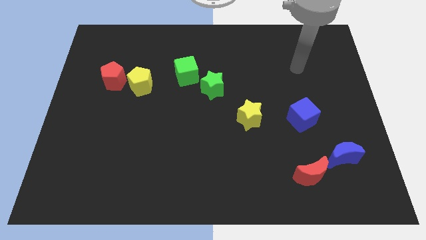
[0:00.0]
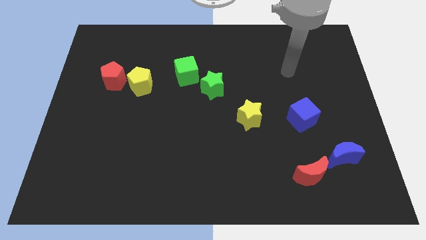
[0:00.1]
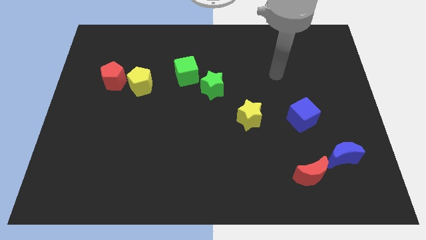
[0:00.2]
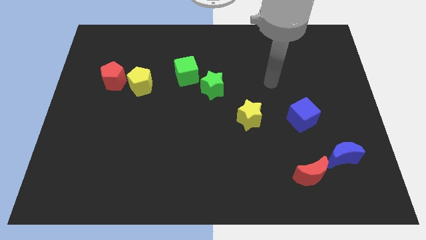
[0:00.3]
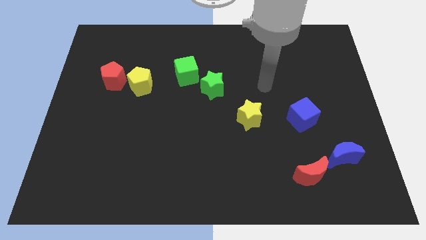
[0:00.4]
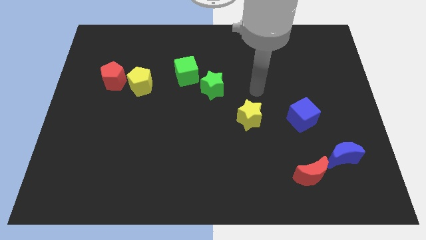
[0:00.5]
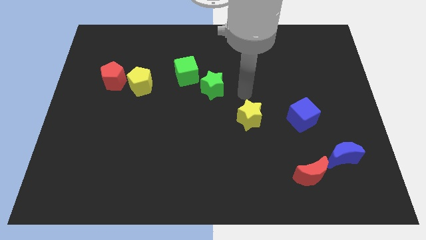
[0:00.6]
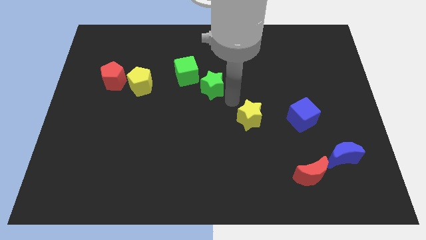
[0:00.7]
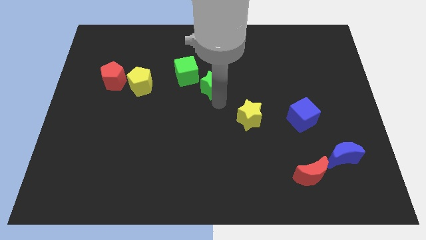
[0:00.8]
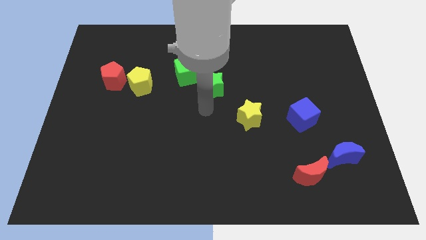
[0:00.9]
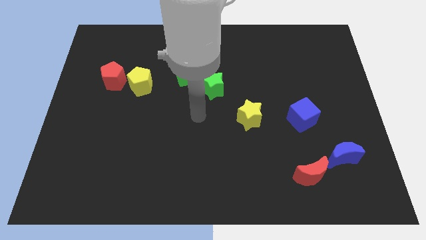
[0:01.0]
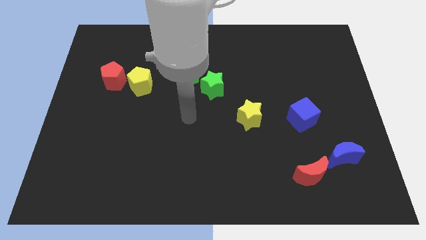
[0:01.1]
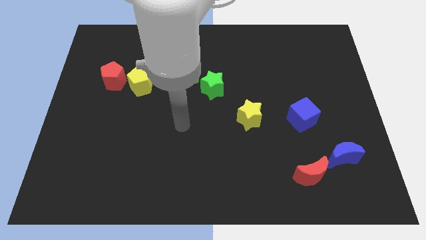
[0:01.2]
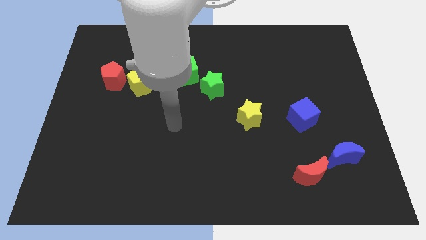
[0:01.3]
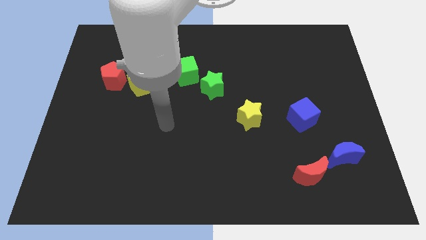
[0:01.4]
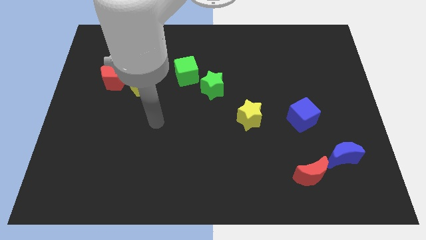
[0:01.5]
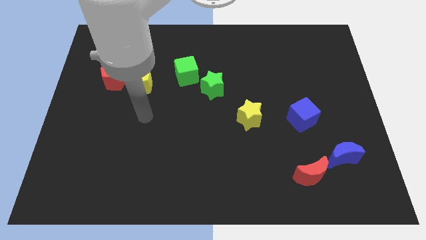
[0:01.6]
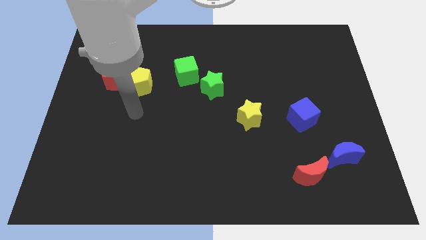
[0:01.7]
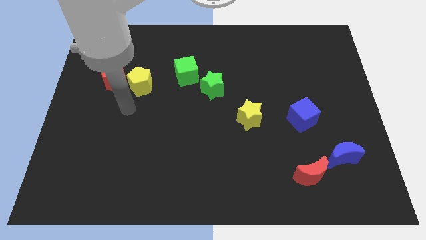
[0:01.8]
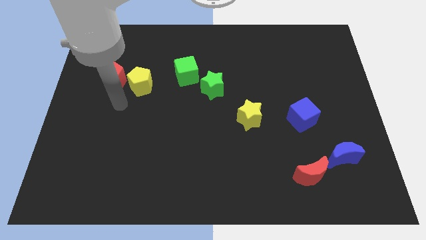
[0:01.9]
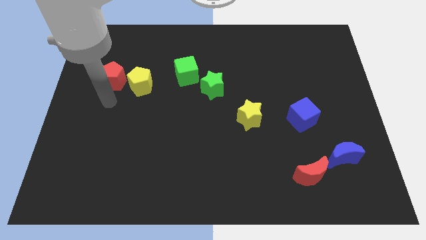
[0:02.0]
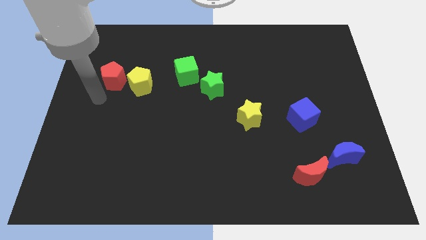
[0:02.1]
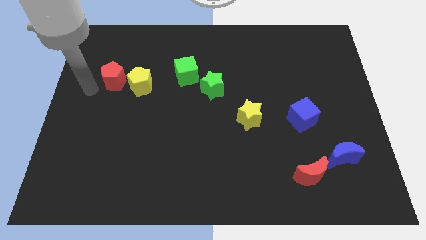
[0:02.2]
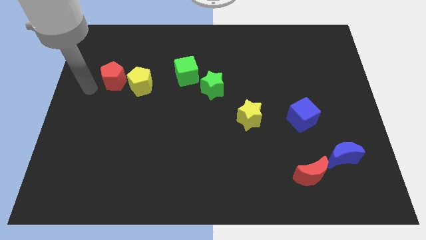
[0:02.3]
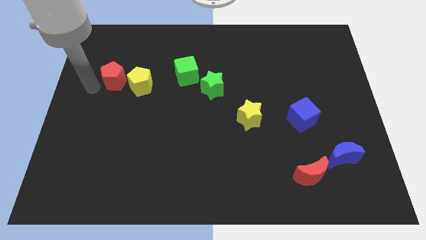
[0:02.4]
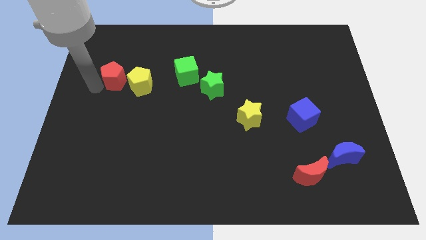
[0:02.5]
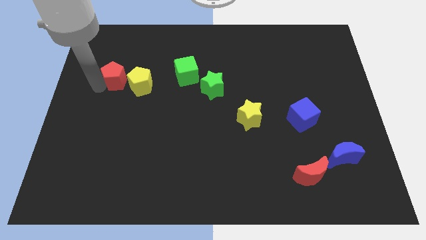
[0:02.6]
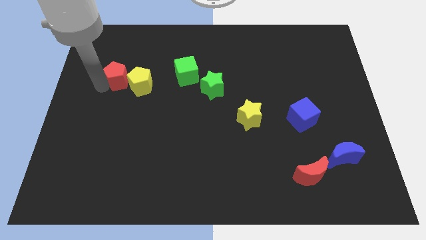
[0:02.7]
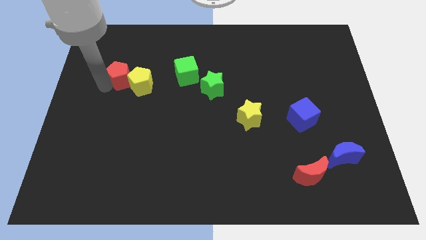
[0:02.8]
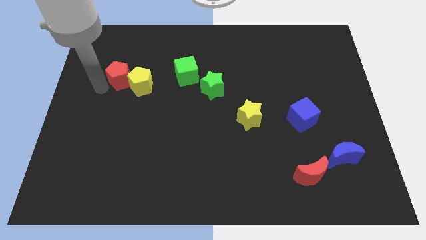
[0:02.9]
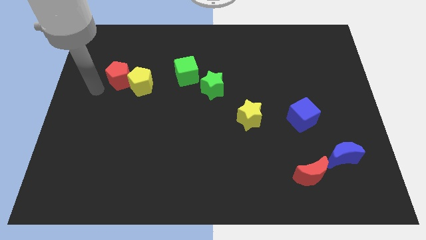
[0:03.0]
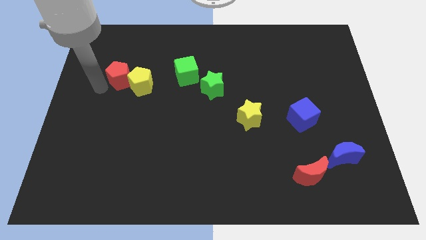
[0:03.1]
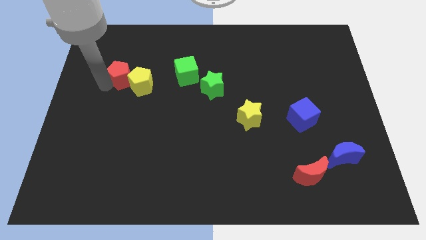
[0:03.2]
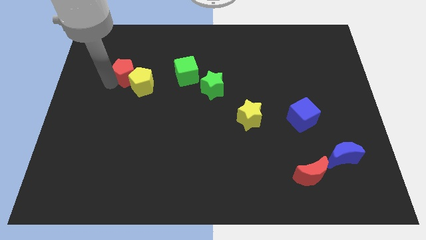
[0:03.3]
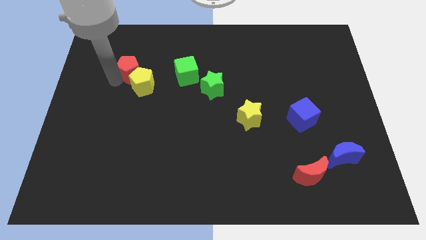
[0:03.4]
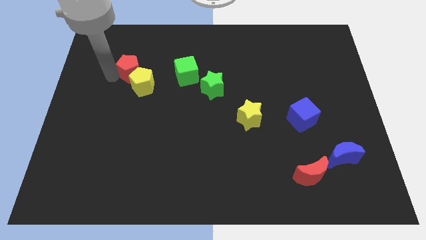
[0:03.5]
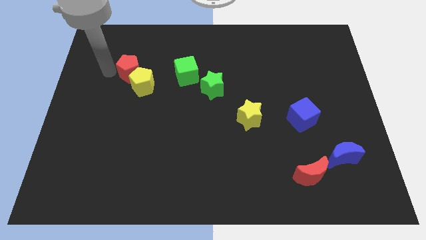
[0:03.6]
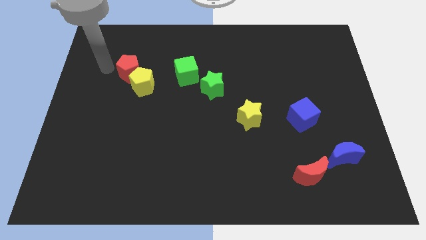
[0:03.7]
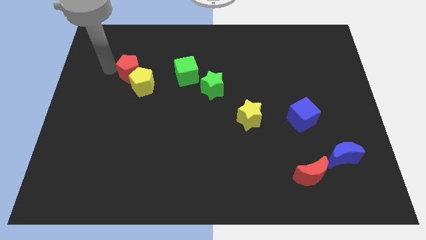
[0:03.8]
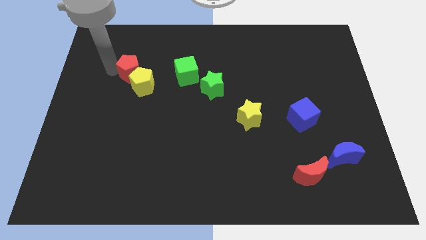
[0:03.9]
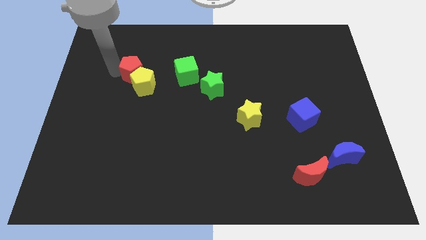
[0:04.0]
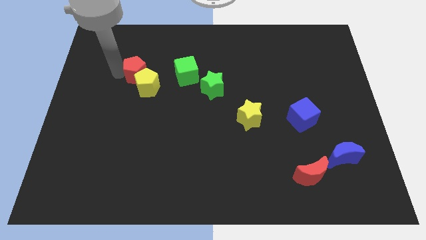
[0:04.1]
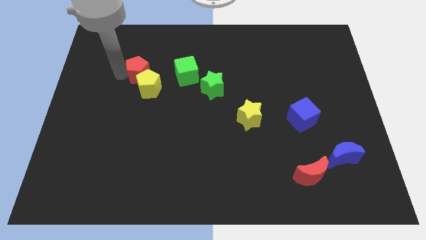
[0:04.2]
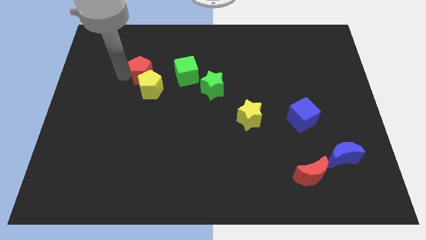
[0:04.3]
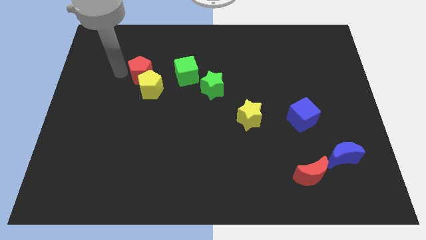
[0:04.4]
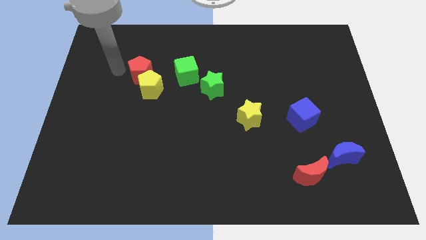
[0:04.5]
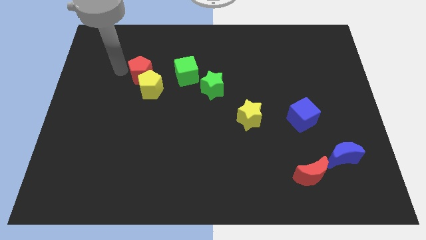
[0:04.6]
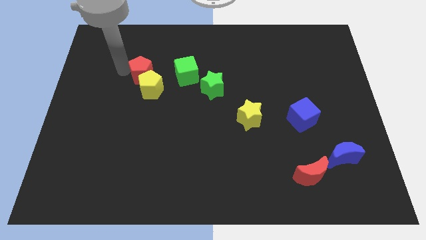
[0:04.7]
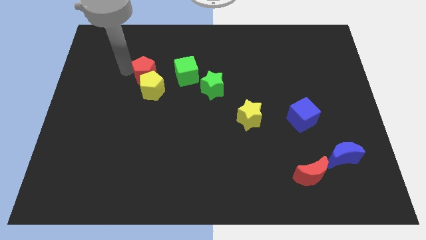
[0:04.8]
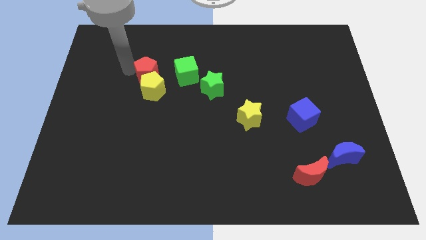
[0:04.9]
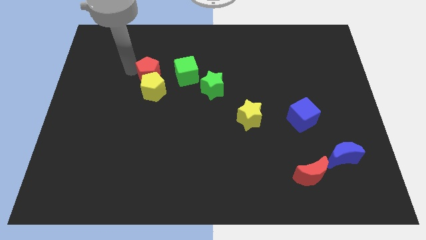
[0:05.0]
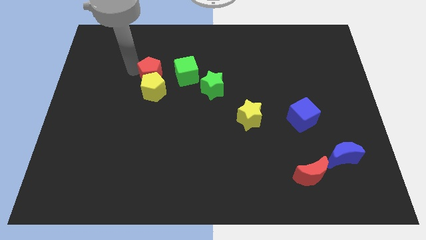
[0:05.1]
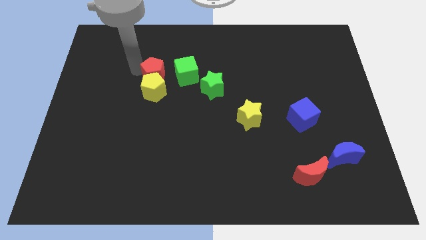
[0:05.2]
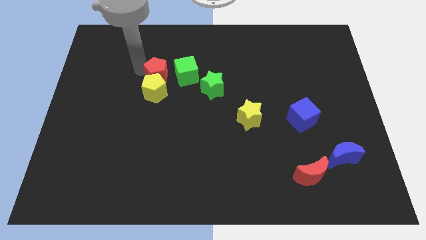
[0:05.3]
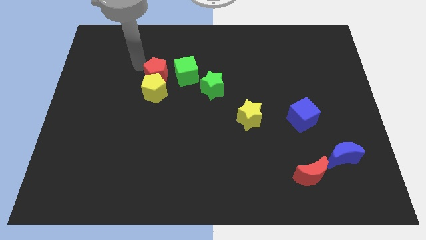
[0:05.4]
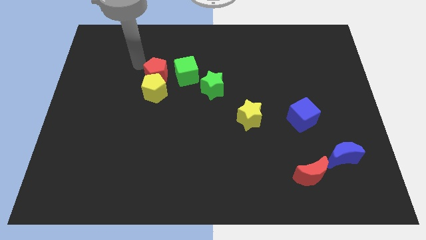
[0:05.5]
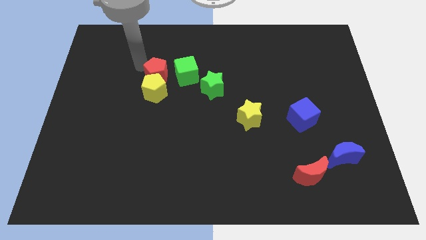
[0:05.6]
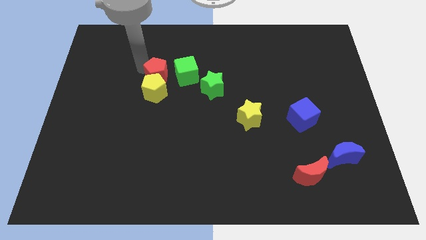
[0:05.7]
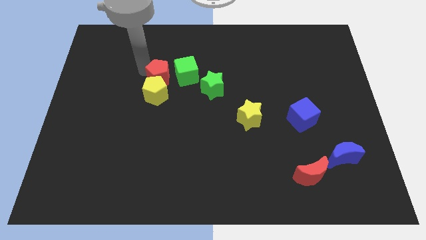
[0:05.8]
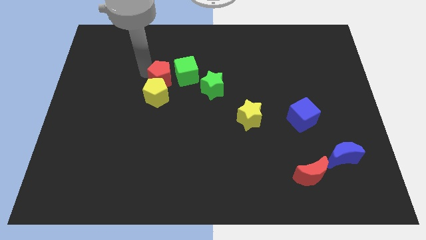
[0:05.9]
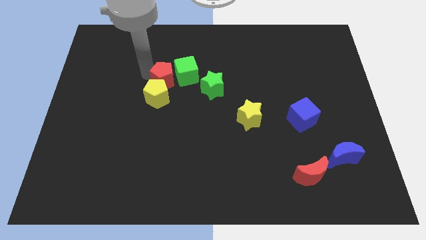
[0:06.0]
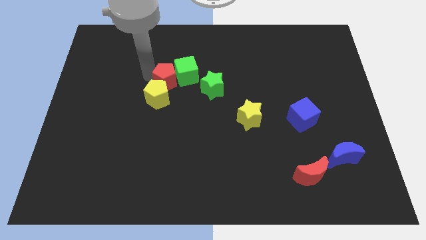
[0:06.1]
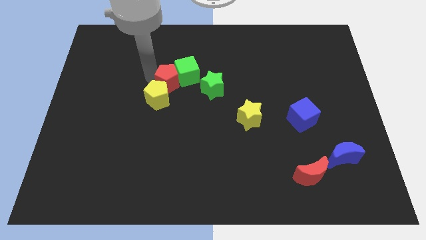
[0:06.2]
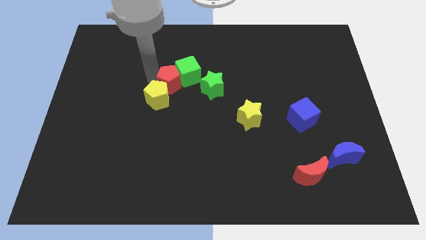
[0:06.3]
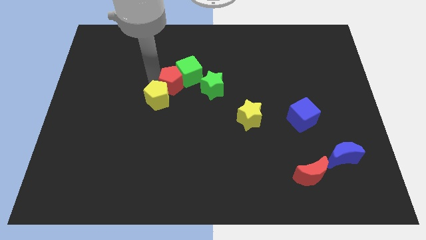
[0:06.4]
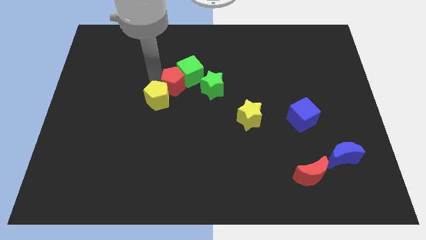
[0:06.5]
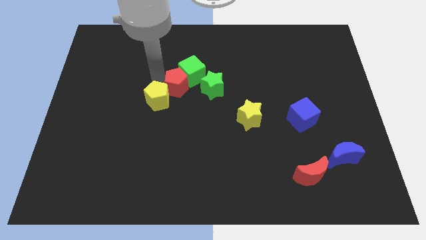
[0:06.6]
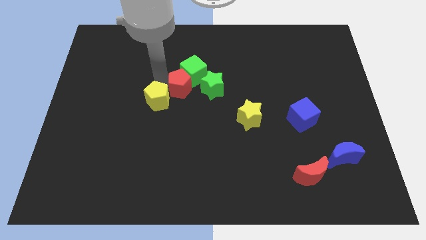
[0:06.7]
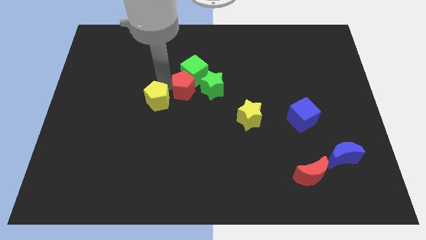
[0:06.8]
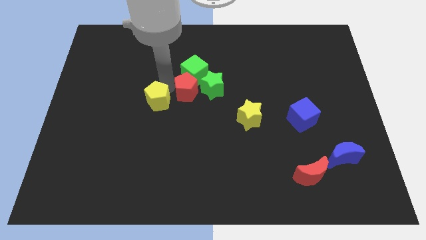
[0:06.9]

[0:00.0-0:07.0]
move the red pentagon close to the green star

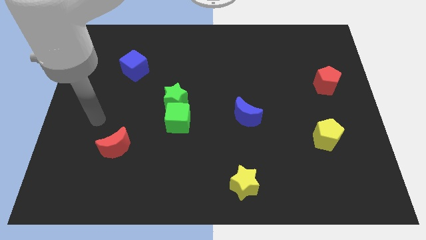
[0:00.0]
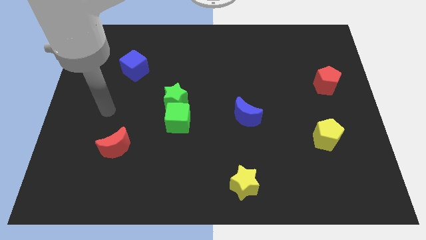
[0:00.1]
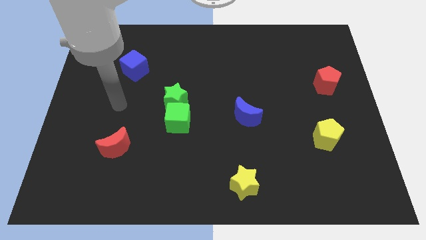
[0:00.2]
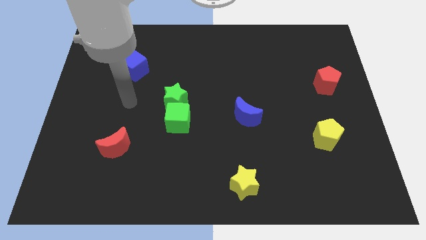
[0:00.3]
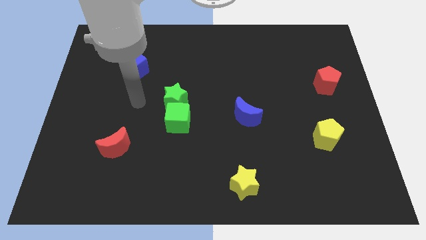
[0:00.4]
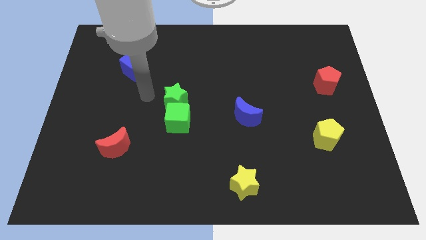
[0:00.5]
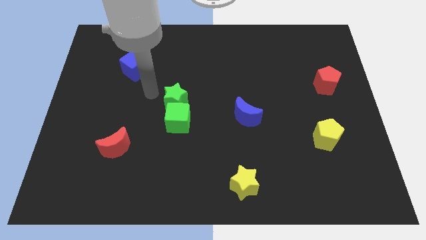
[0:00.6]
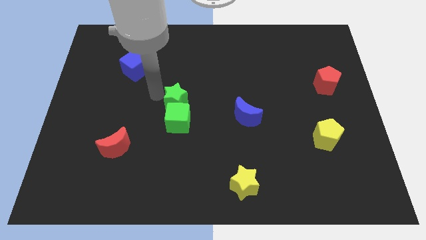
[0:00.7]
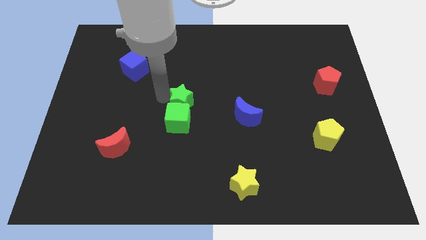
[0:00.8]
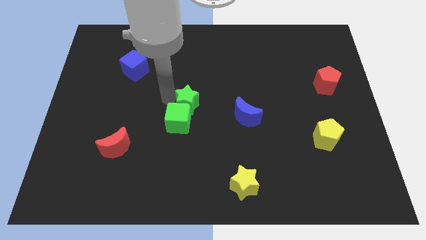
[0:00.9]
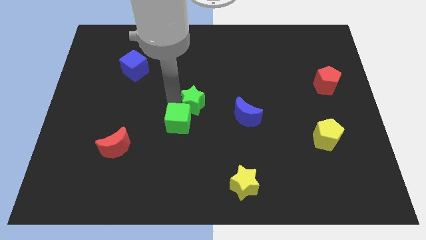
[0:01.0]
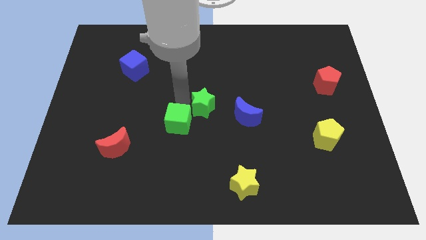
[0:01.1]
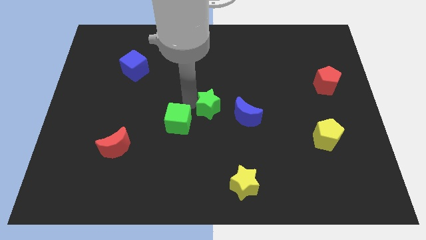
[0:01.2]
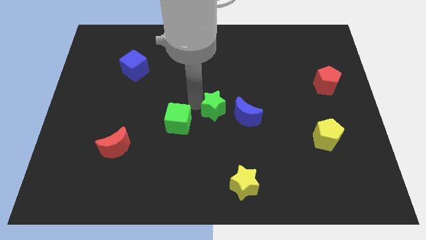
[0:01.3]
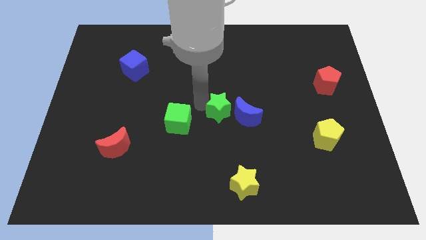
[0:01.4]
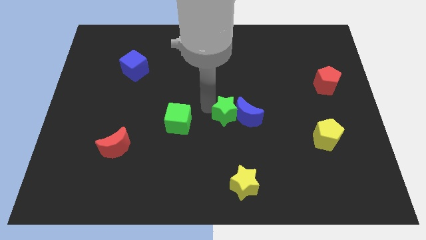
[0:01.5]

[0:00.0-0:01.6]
slide the green star to the blue moon
